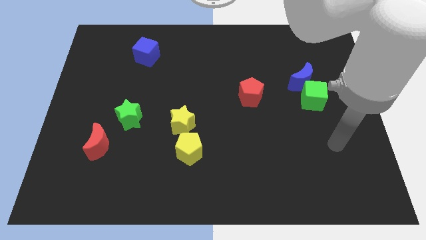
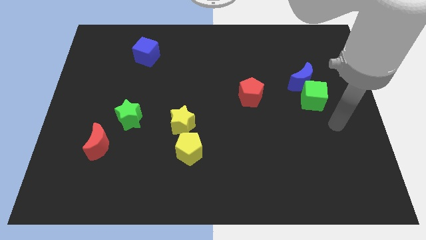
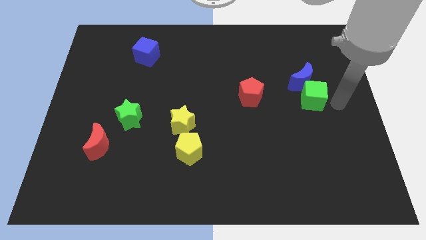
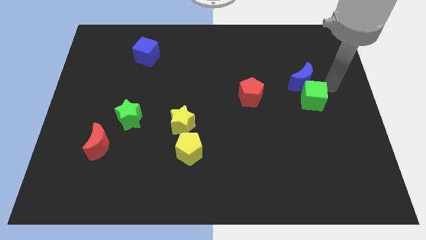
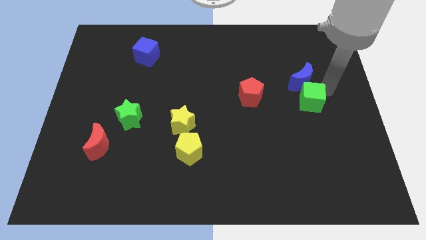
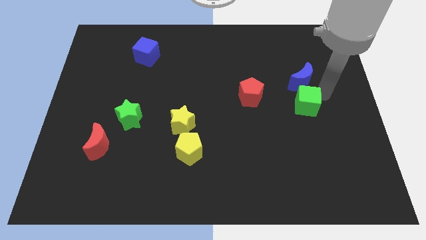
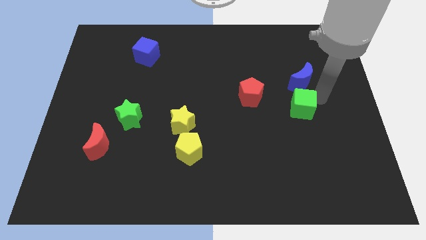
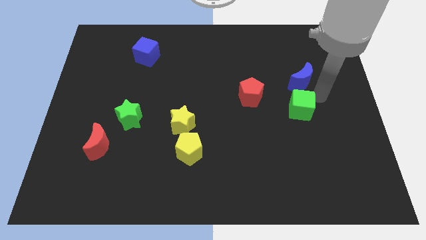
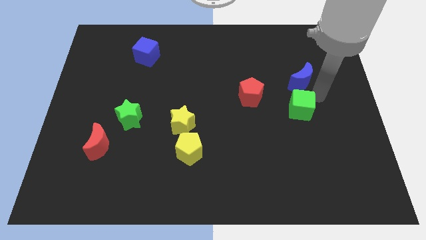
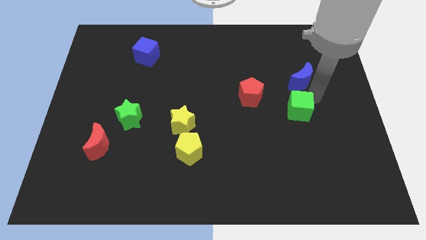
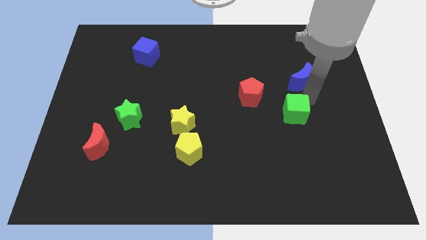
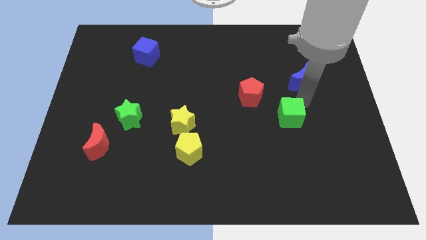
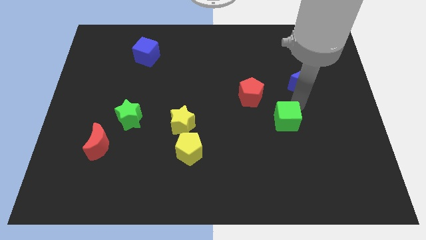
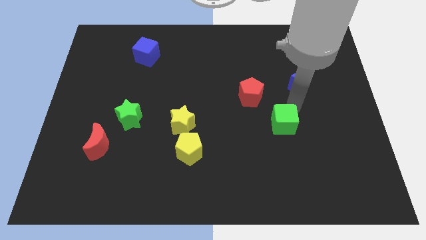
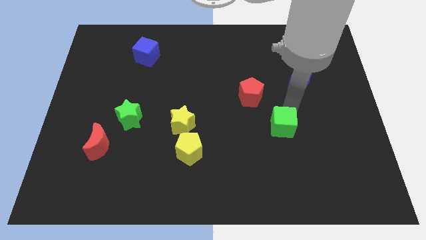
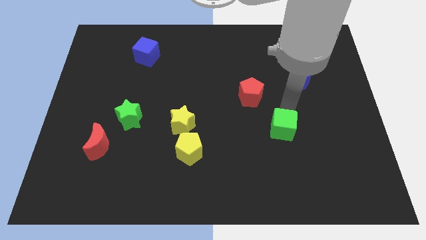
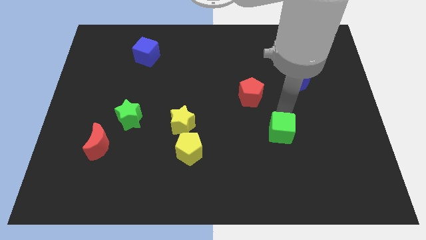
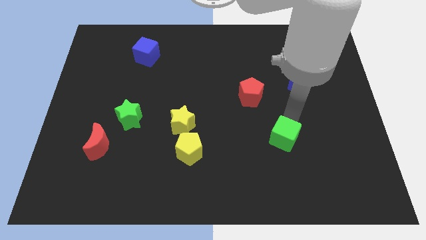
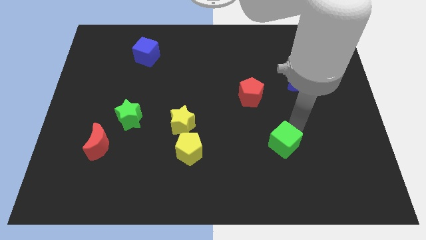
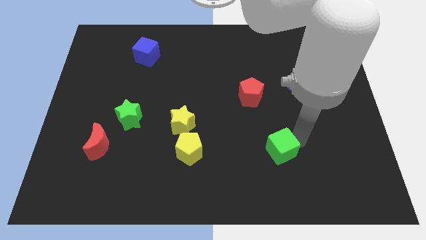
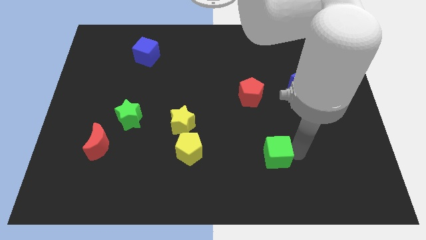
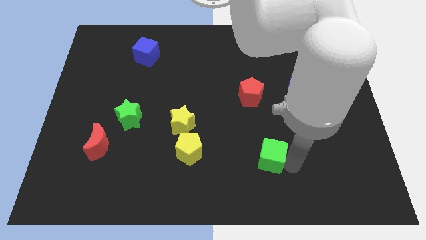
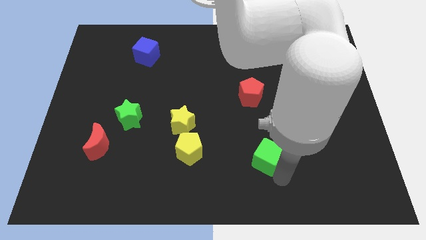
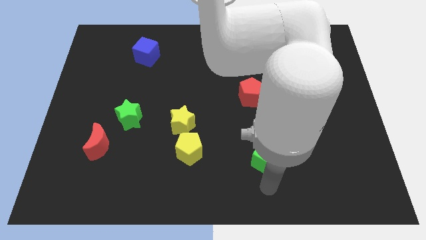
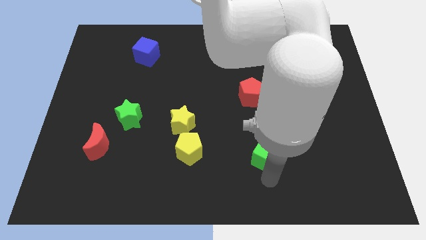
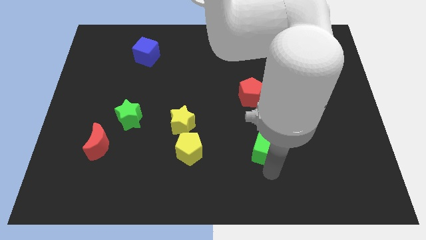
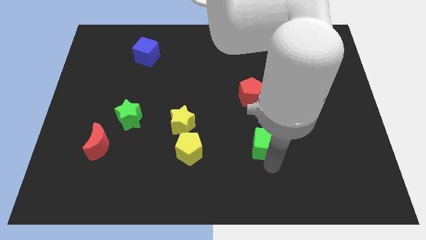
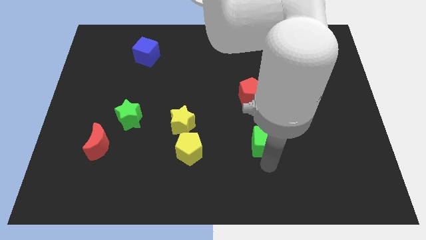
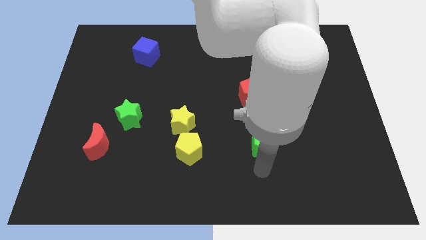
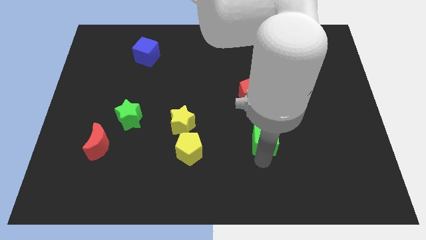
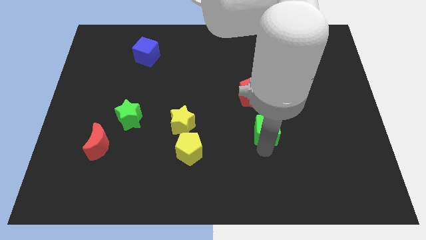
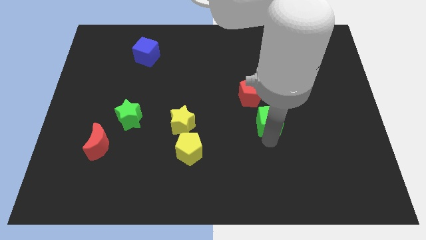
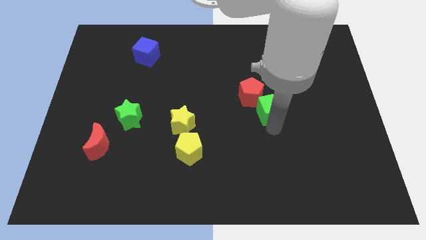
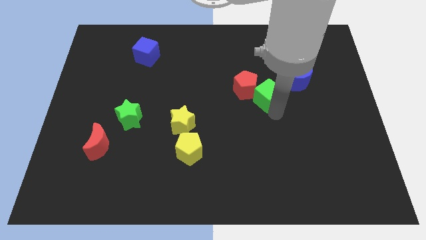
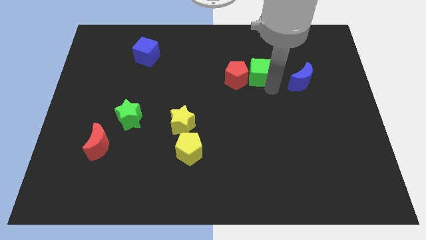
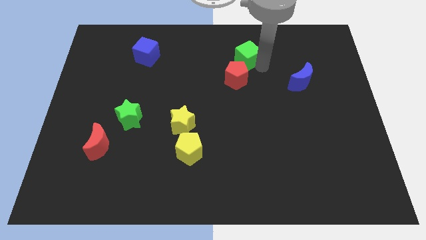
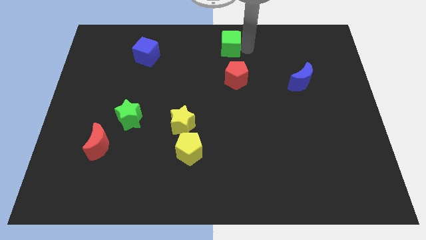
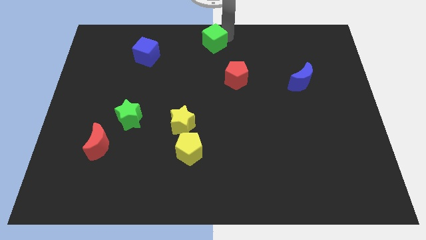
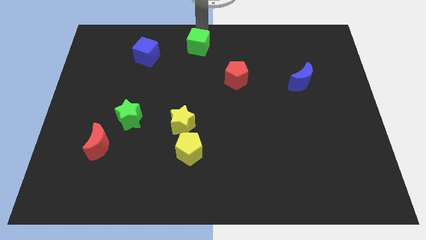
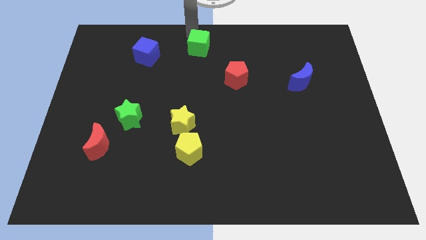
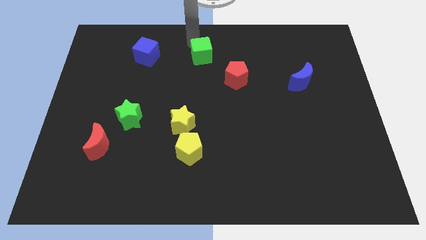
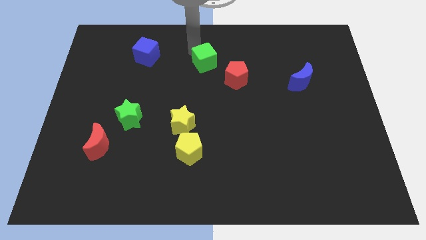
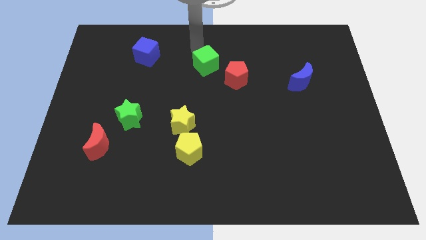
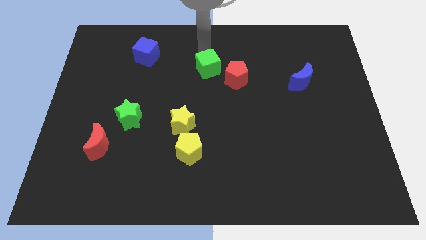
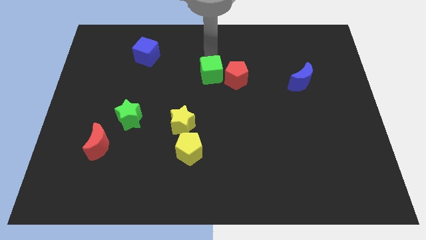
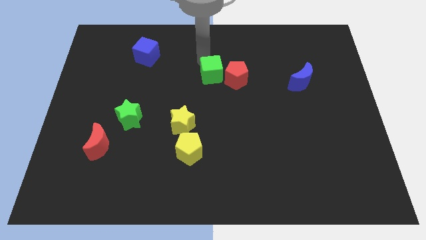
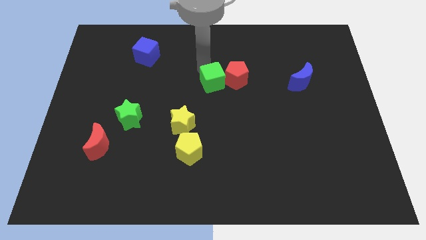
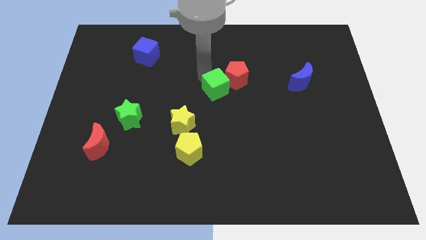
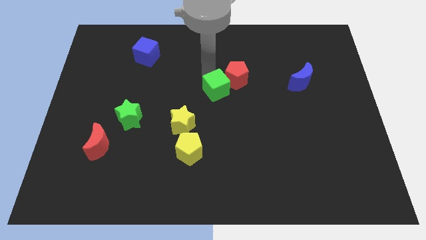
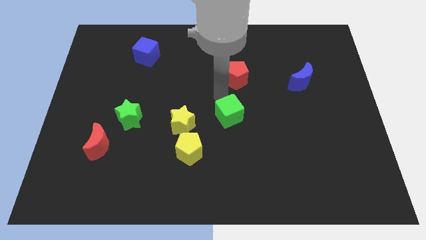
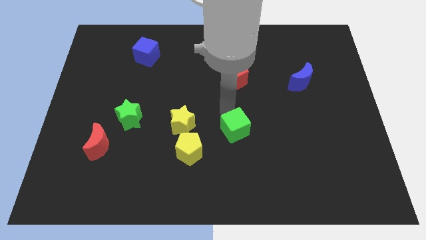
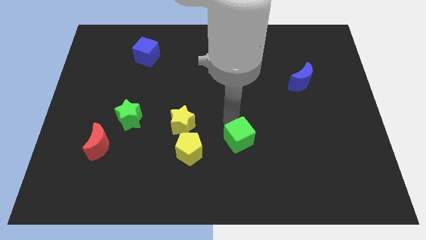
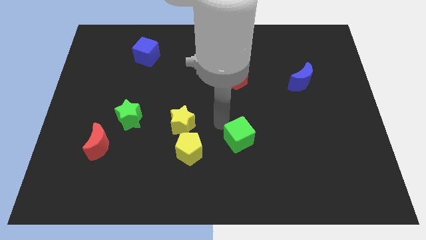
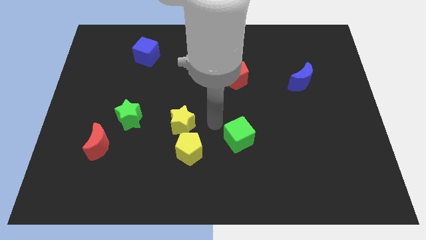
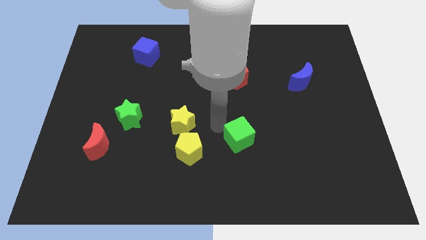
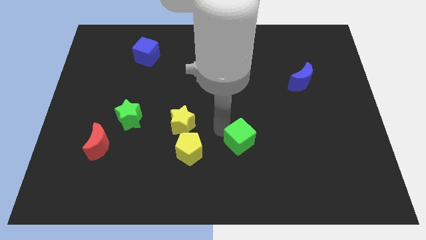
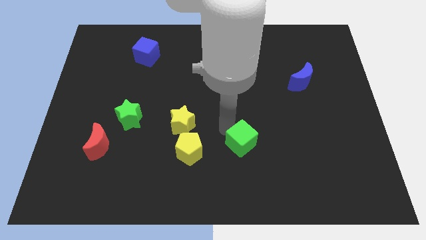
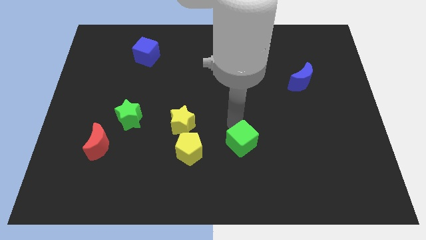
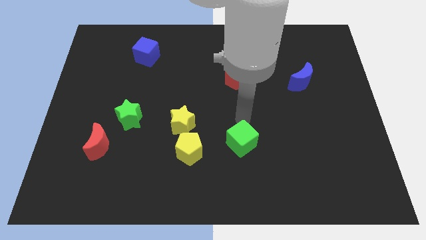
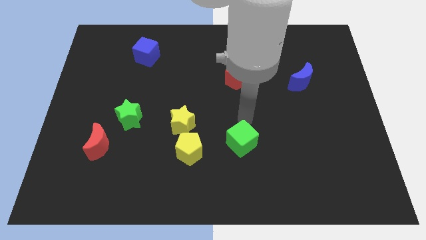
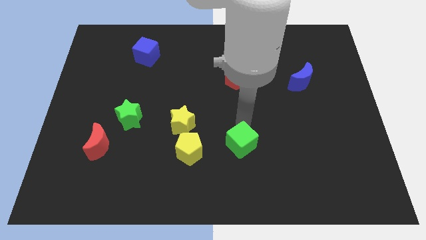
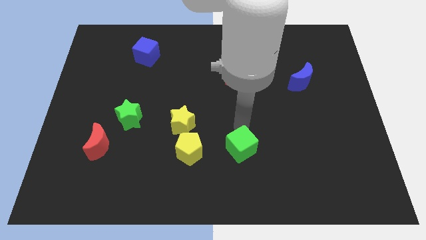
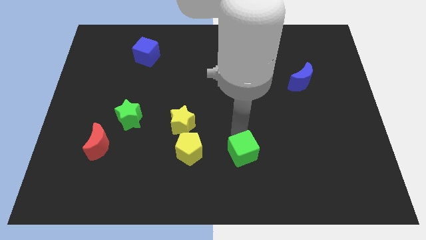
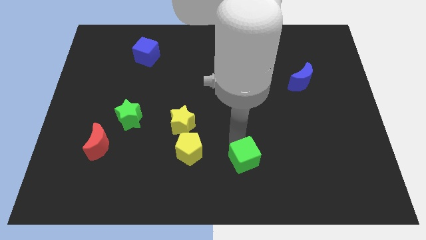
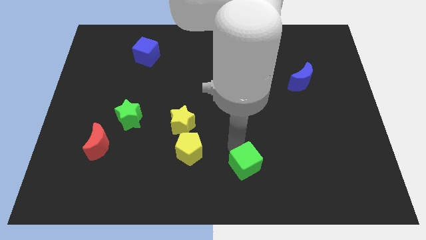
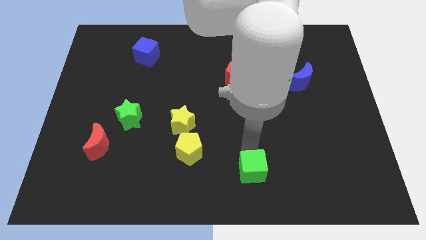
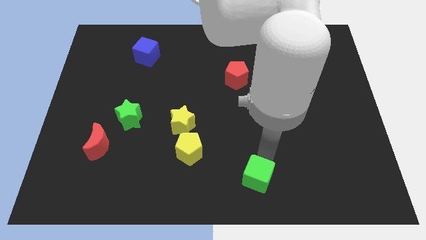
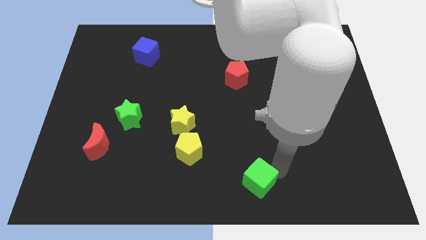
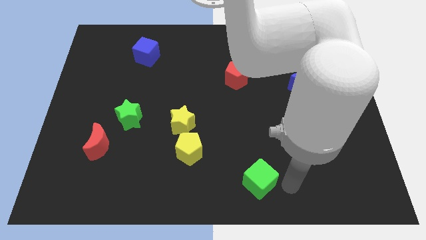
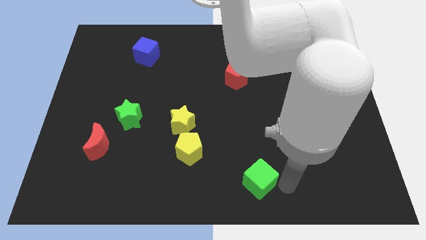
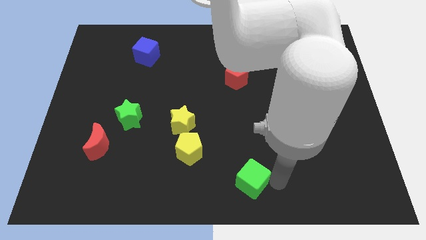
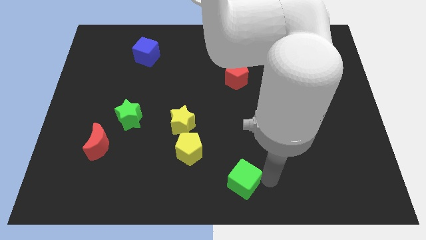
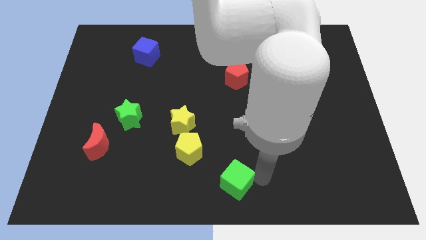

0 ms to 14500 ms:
slide the green cube diagonally down and to the right of the yellow pentagon

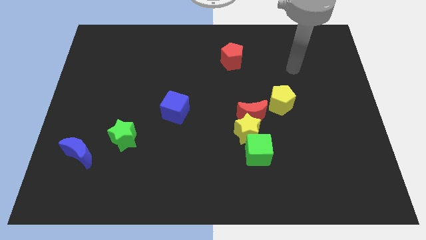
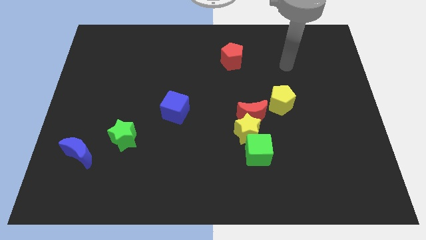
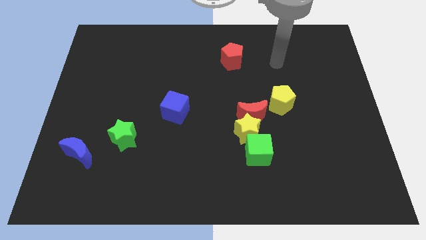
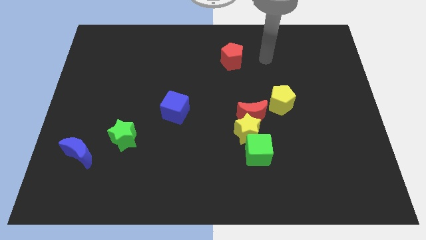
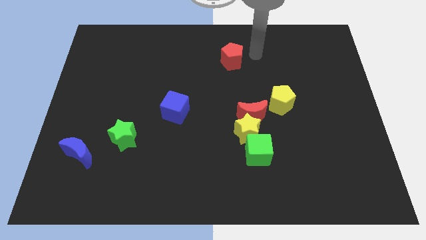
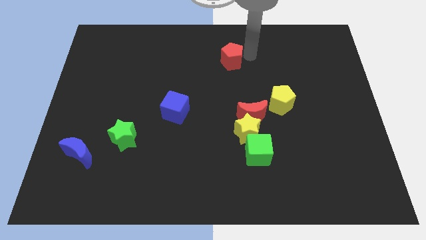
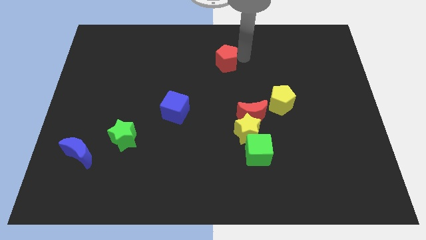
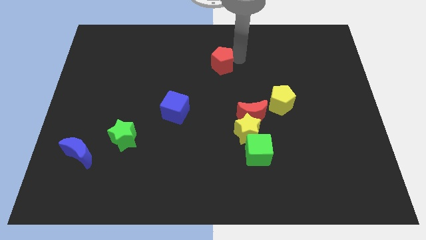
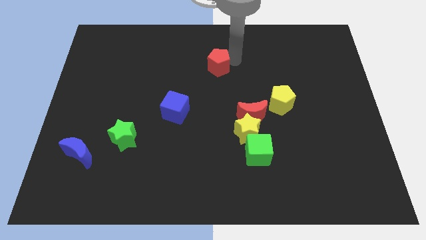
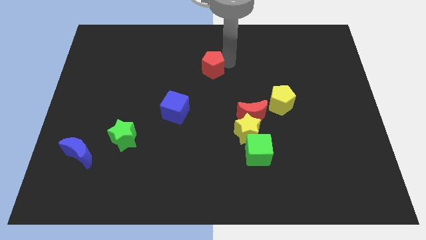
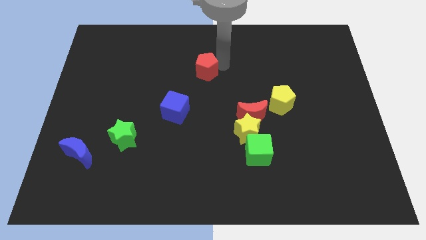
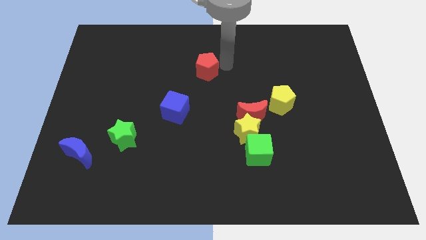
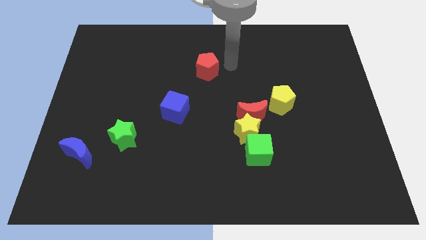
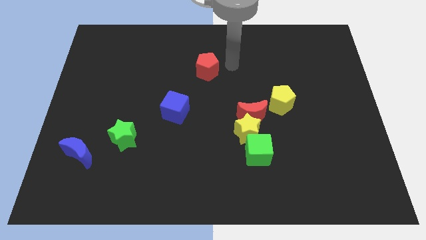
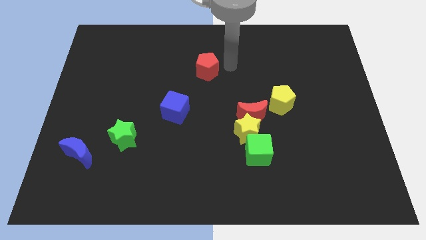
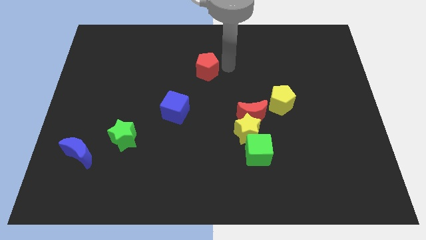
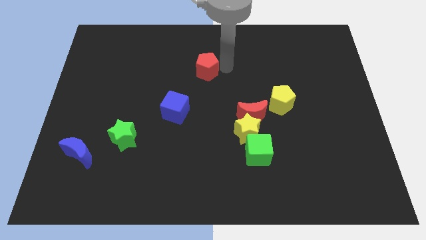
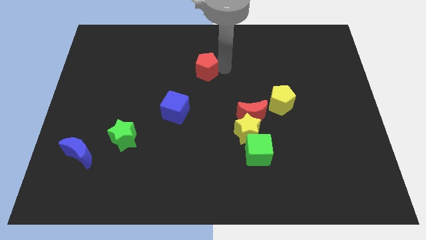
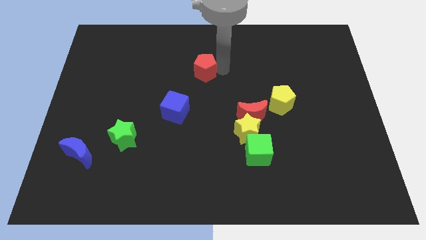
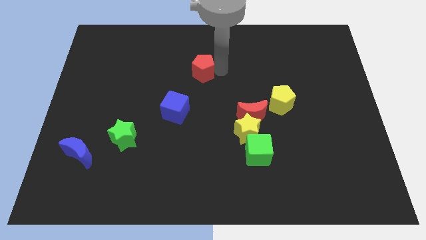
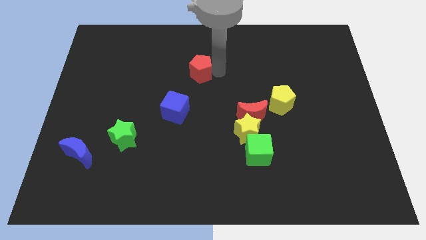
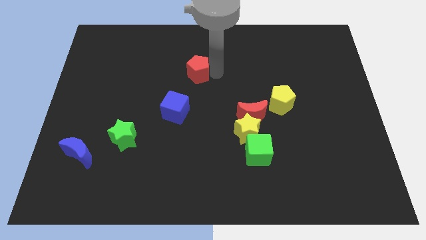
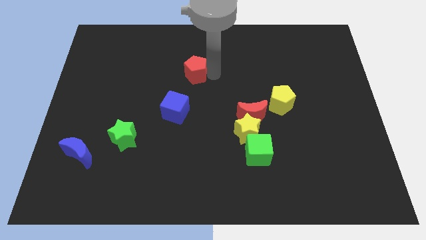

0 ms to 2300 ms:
push the red pentagon above the blue cube
